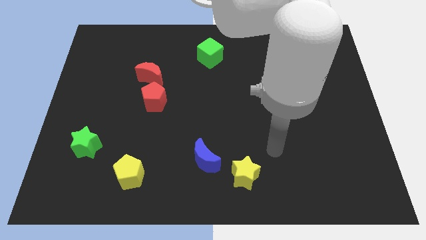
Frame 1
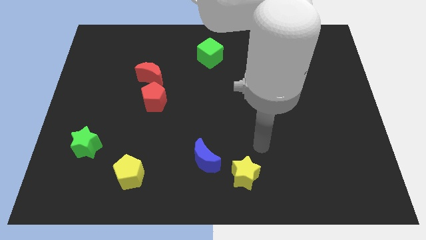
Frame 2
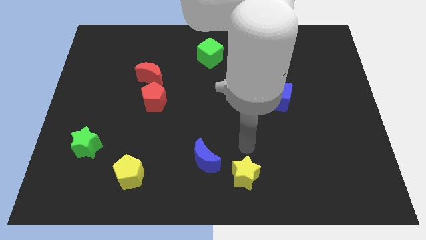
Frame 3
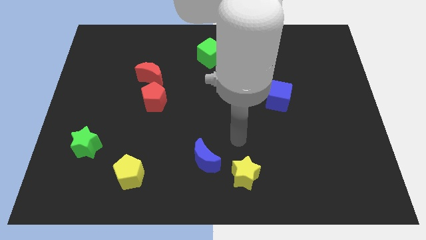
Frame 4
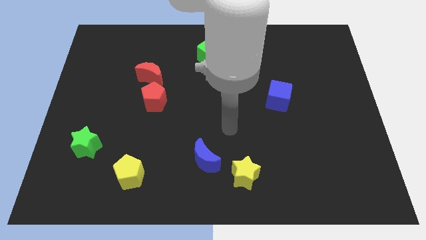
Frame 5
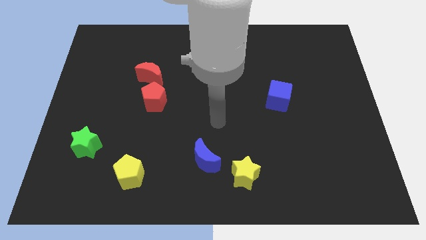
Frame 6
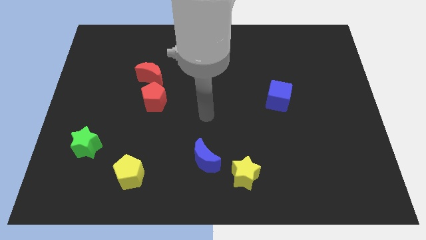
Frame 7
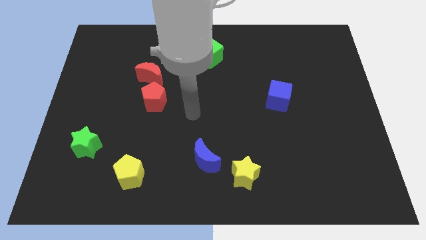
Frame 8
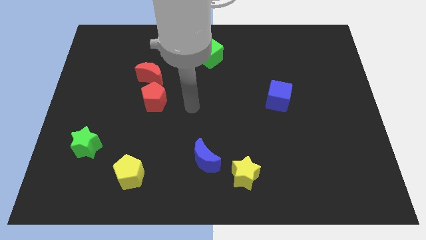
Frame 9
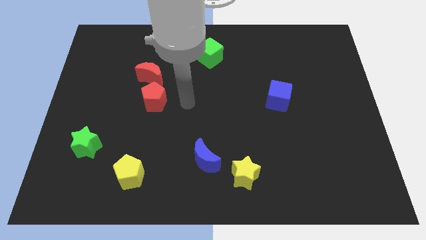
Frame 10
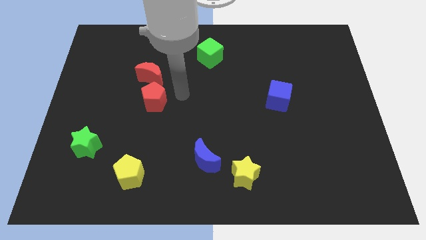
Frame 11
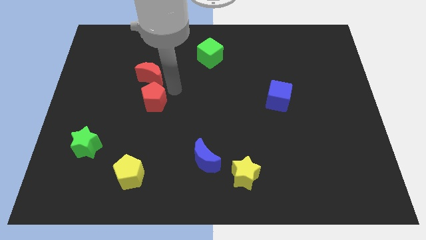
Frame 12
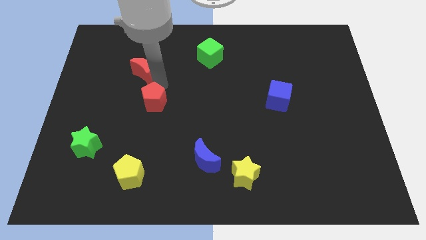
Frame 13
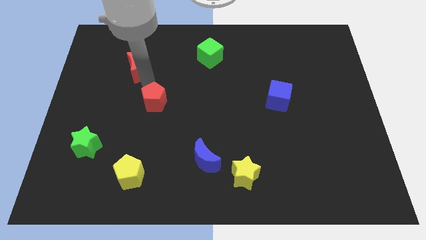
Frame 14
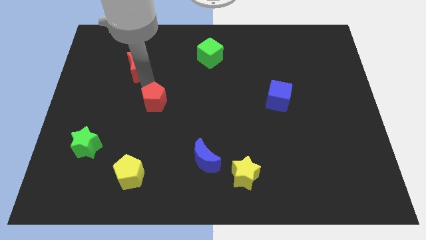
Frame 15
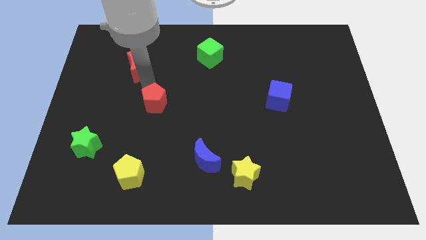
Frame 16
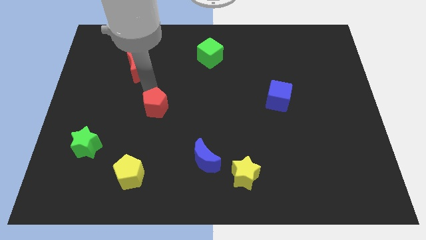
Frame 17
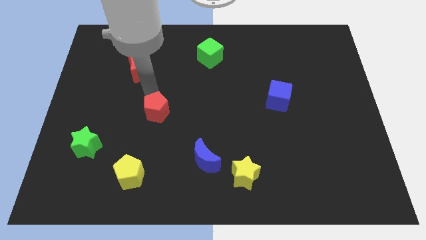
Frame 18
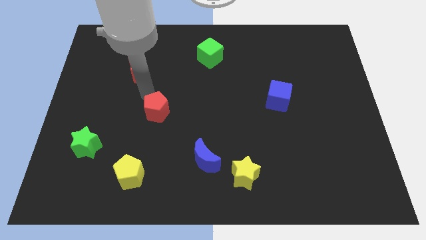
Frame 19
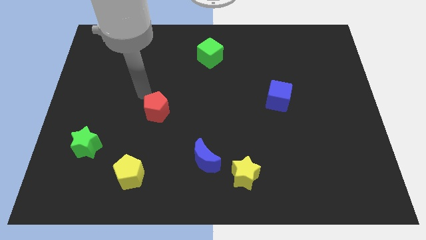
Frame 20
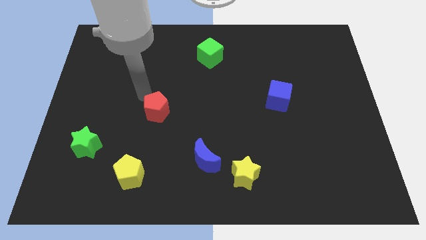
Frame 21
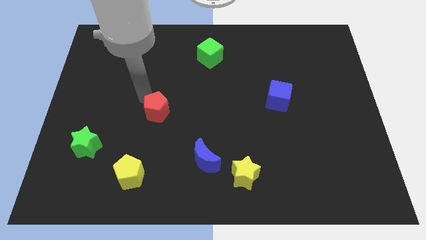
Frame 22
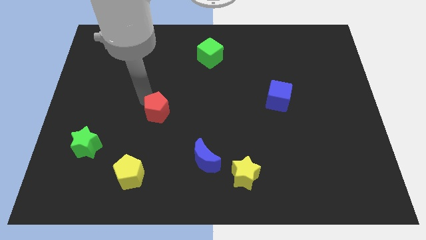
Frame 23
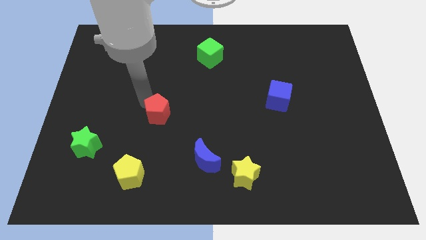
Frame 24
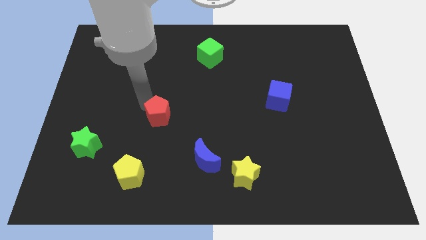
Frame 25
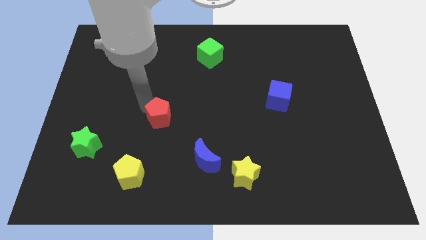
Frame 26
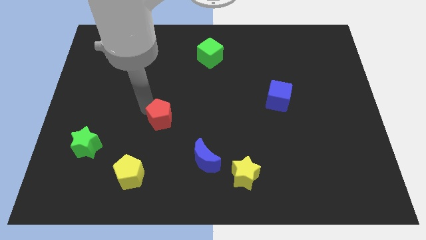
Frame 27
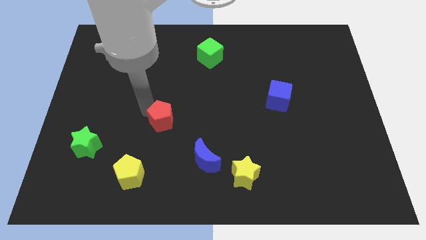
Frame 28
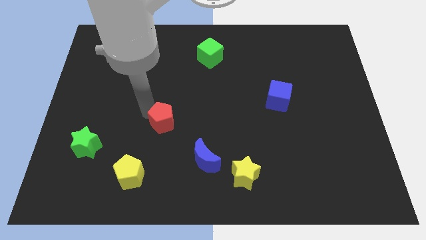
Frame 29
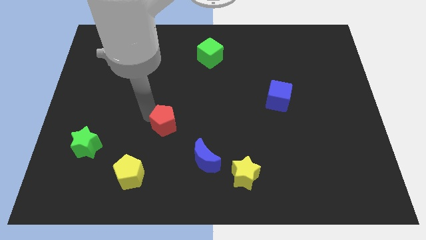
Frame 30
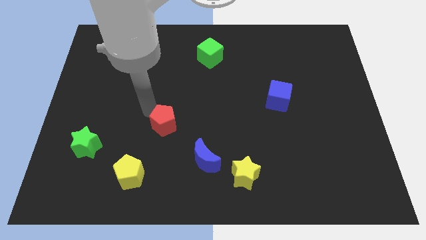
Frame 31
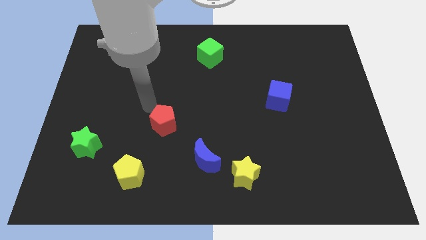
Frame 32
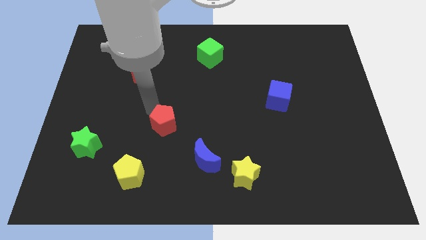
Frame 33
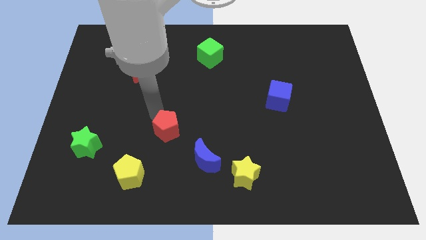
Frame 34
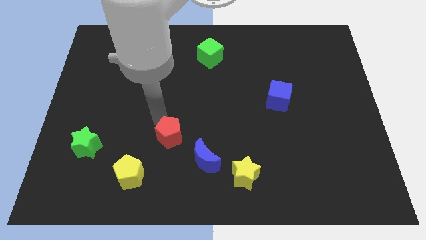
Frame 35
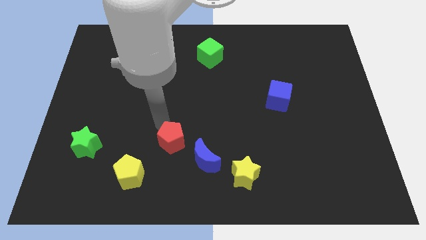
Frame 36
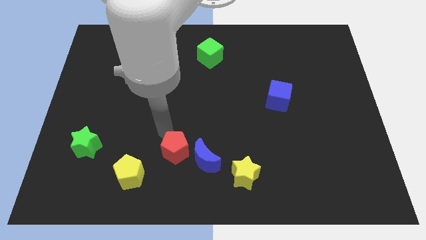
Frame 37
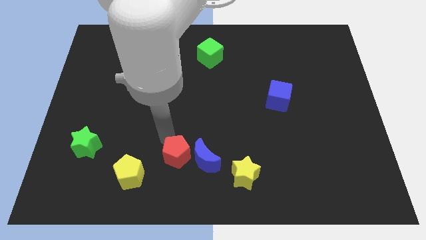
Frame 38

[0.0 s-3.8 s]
slide the red pentagon close to the blue moon

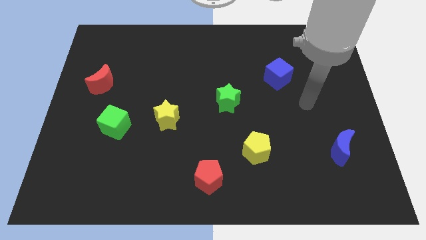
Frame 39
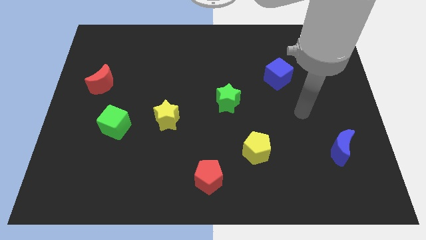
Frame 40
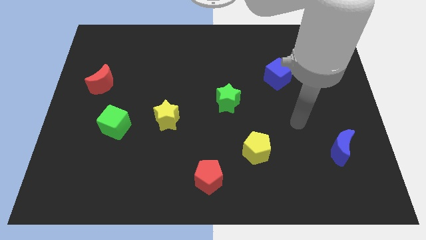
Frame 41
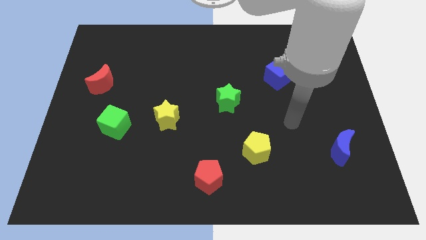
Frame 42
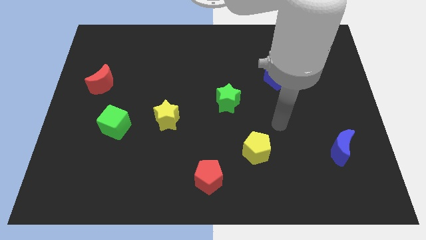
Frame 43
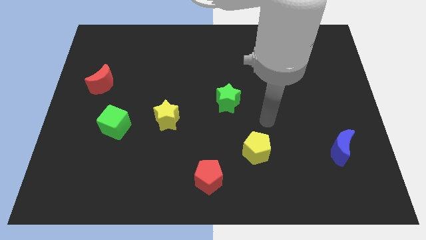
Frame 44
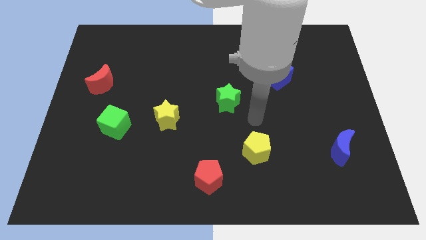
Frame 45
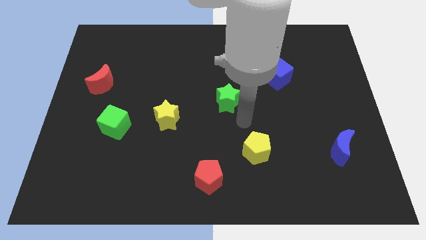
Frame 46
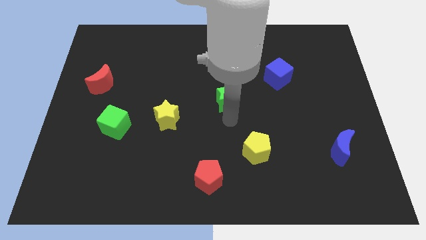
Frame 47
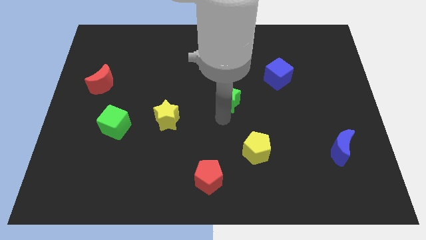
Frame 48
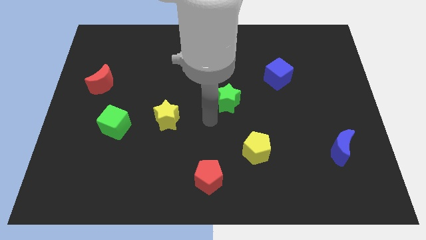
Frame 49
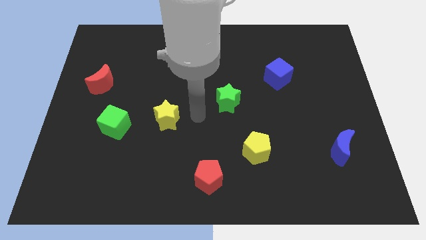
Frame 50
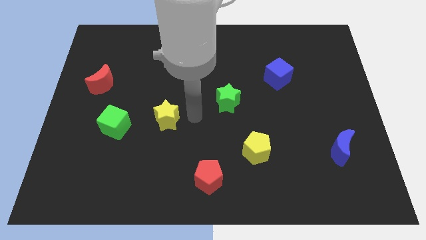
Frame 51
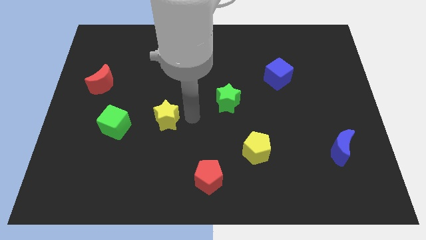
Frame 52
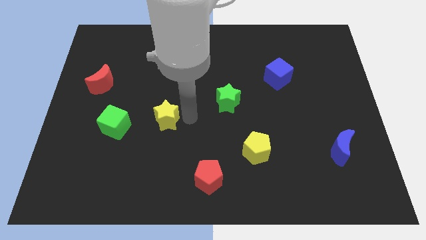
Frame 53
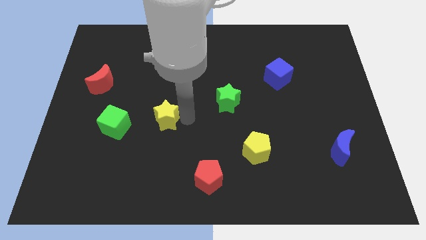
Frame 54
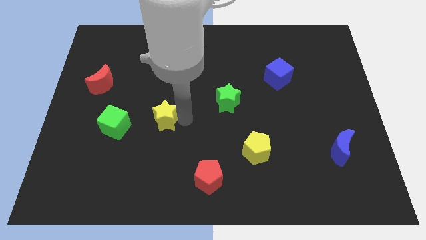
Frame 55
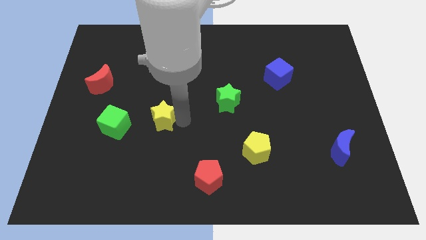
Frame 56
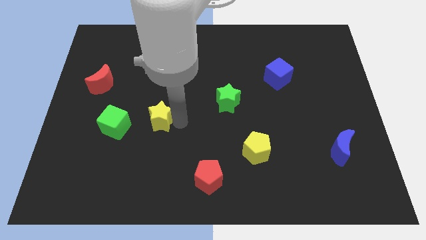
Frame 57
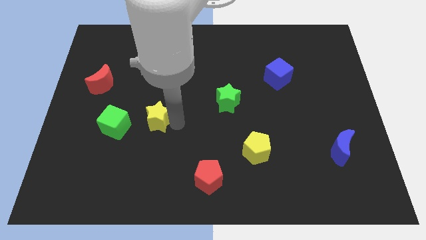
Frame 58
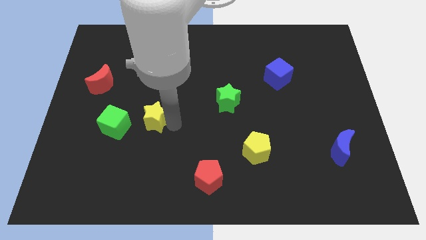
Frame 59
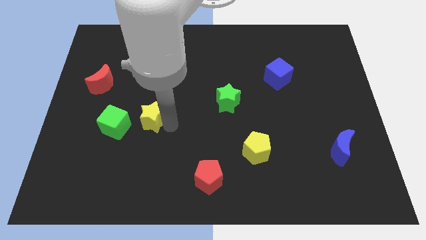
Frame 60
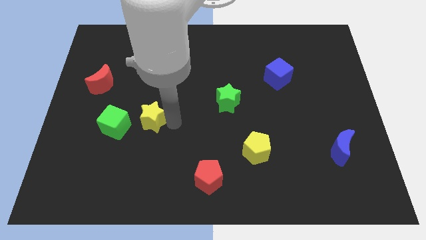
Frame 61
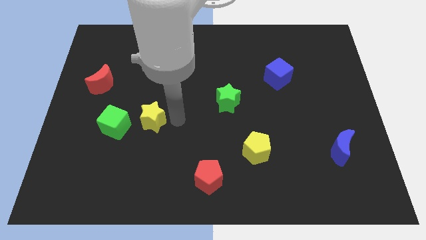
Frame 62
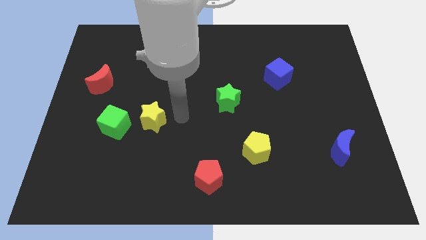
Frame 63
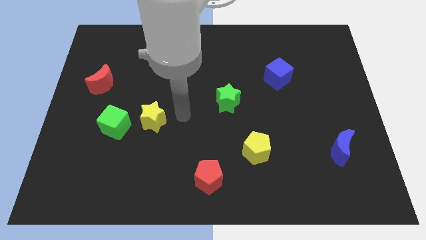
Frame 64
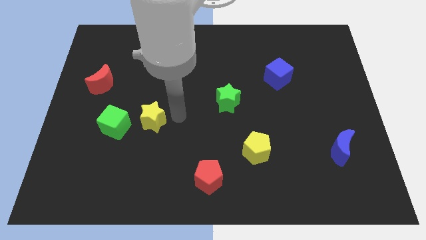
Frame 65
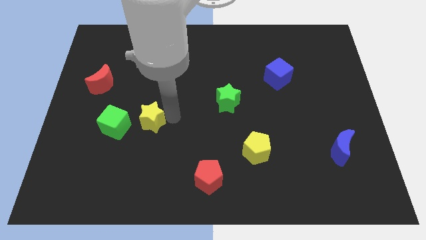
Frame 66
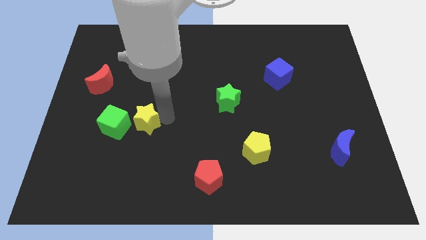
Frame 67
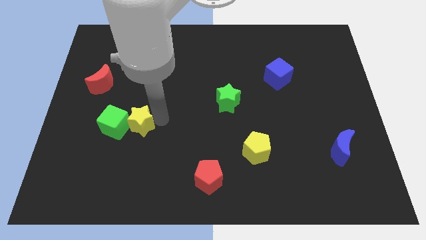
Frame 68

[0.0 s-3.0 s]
put the yellow star towards the green cube

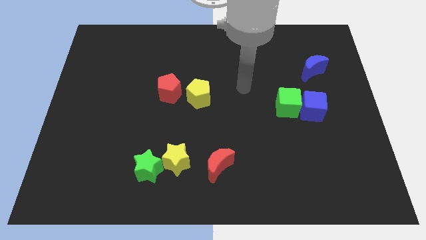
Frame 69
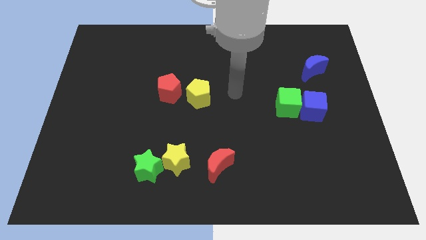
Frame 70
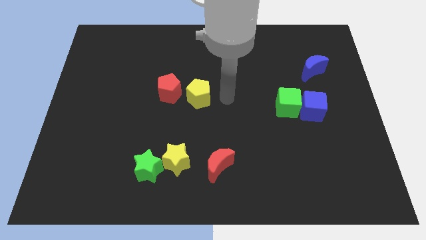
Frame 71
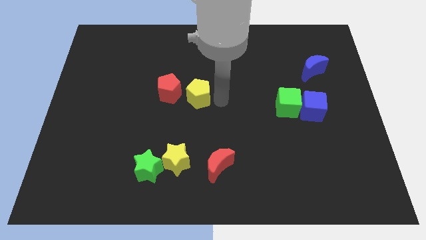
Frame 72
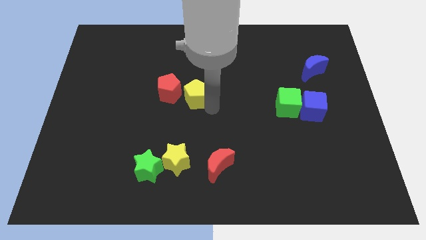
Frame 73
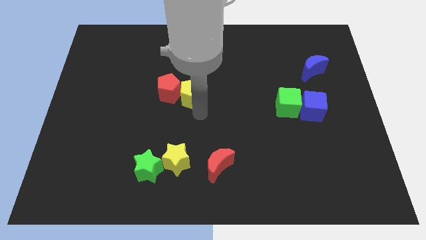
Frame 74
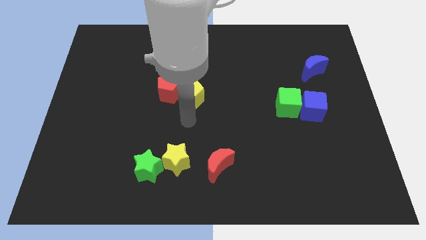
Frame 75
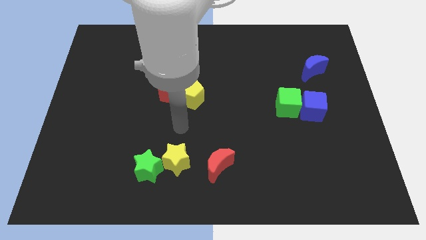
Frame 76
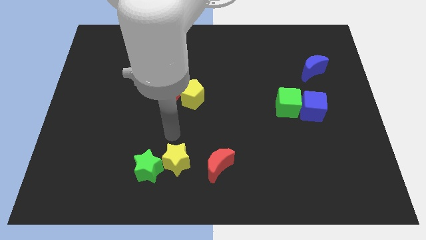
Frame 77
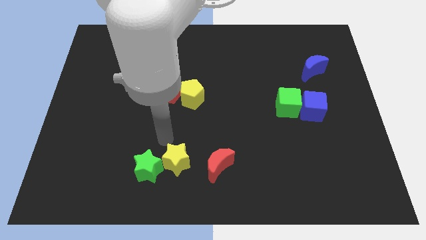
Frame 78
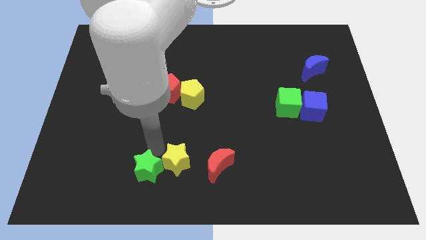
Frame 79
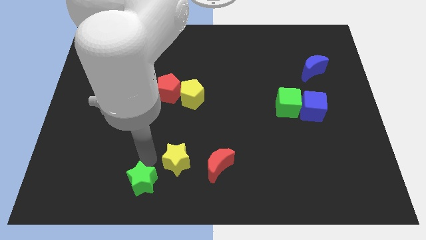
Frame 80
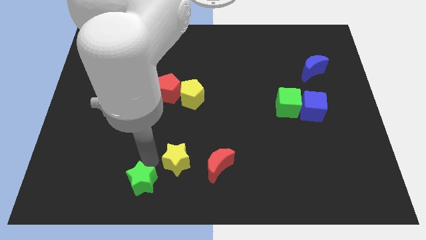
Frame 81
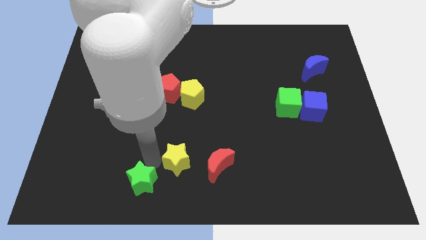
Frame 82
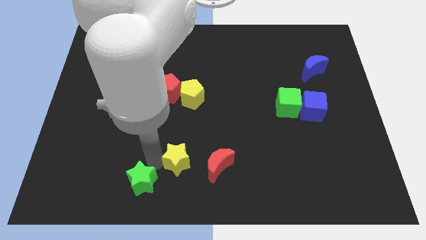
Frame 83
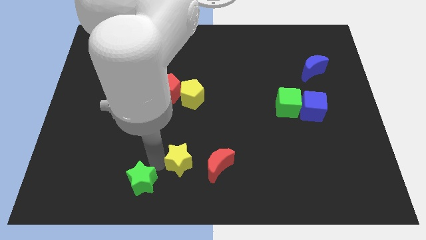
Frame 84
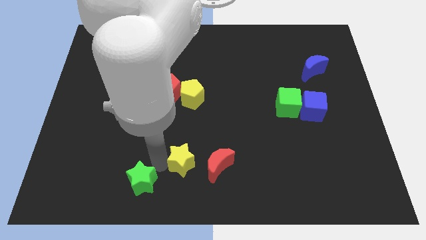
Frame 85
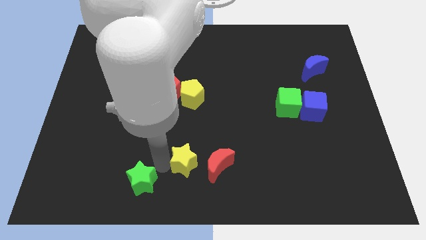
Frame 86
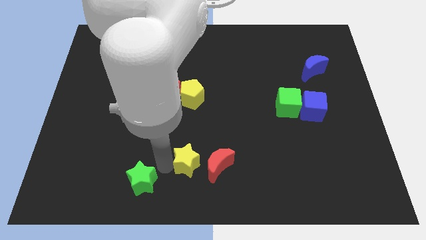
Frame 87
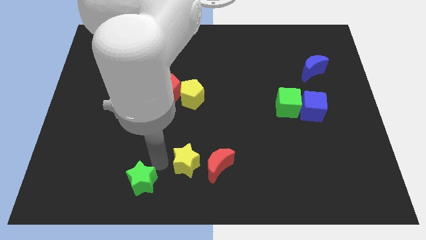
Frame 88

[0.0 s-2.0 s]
push the yellow star towards the red moon
